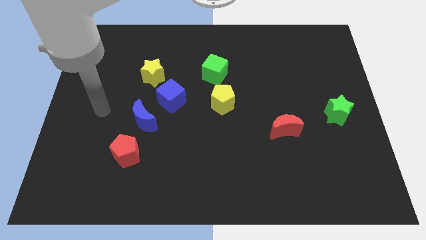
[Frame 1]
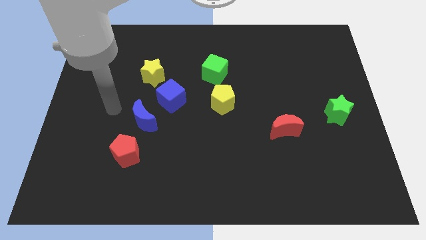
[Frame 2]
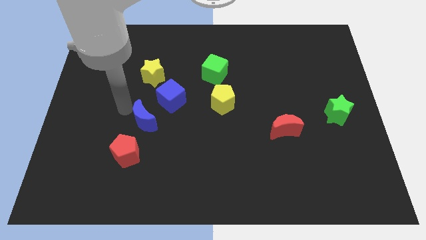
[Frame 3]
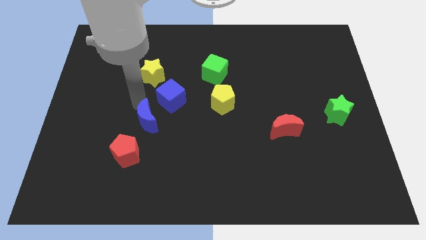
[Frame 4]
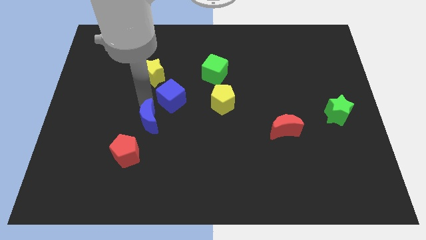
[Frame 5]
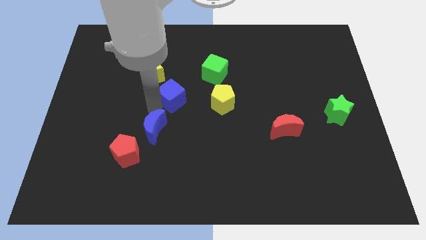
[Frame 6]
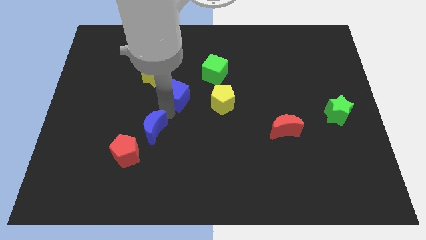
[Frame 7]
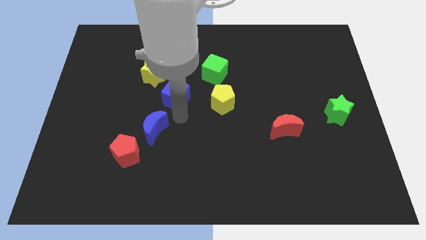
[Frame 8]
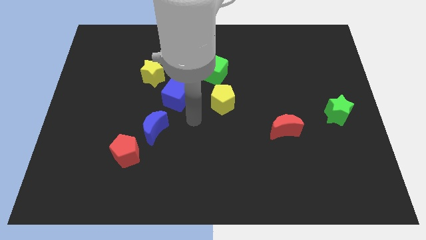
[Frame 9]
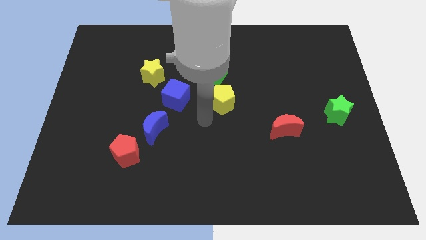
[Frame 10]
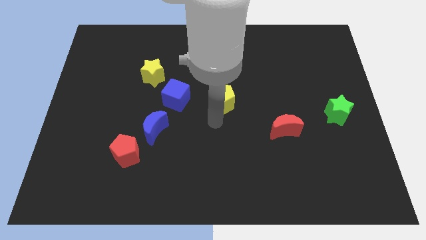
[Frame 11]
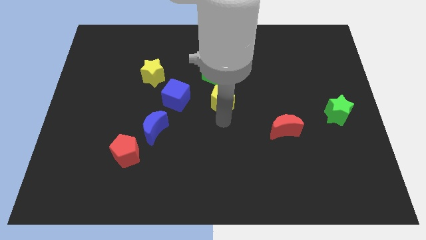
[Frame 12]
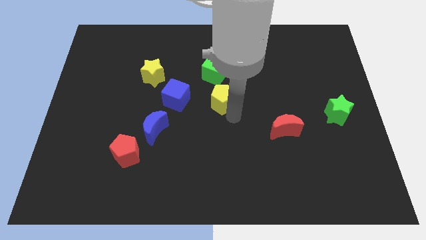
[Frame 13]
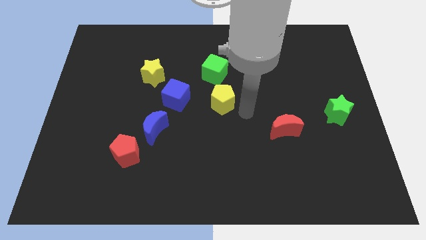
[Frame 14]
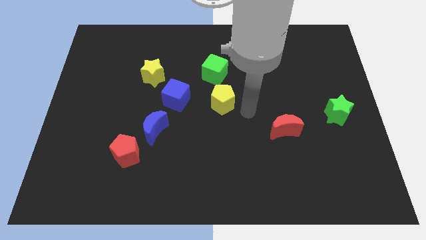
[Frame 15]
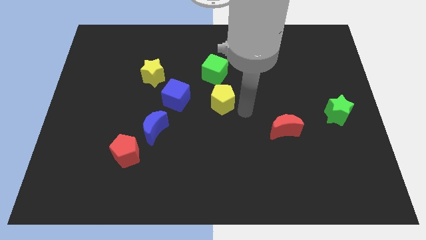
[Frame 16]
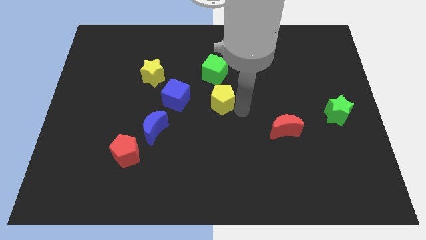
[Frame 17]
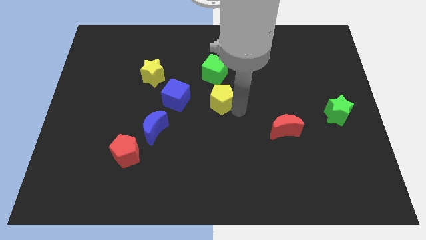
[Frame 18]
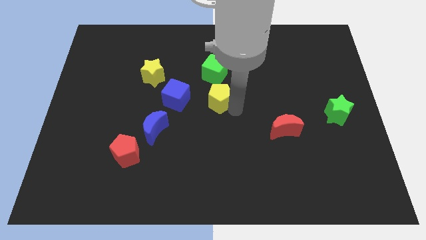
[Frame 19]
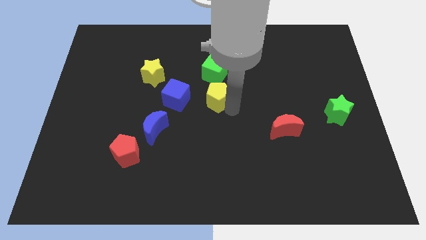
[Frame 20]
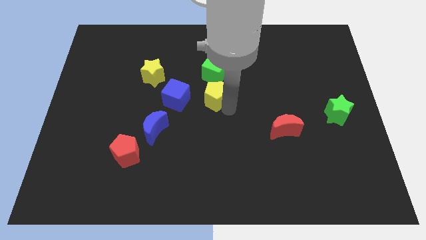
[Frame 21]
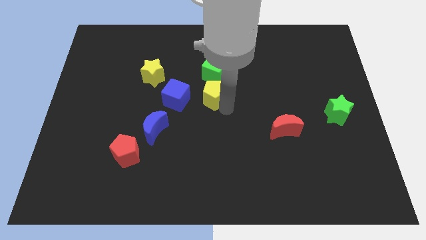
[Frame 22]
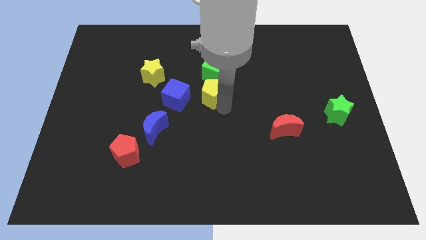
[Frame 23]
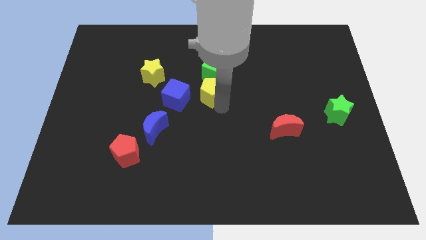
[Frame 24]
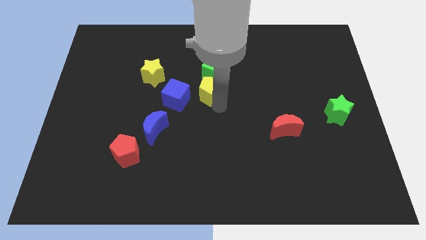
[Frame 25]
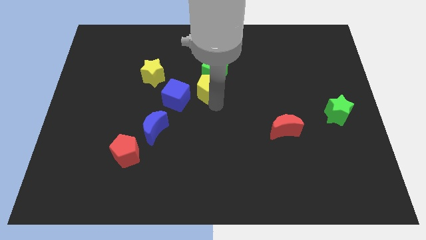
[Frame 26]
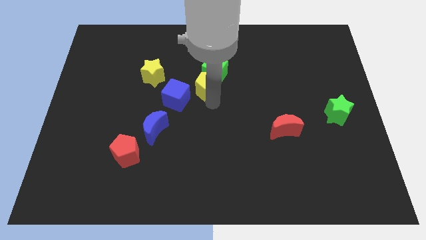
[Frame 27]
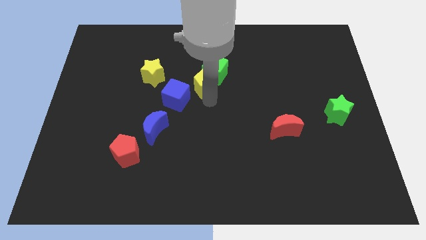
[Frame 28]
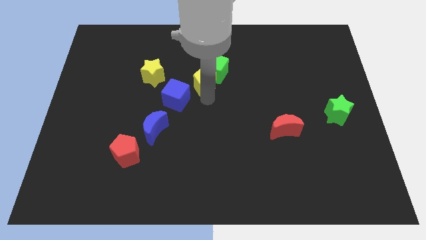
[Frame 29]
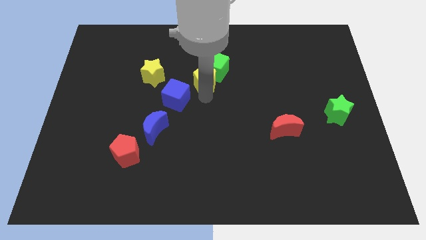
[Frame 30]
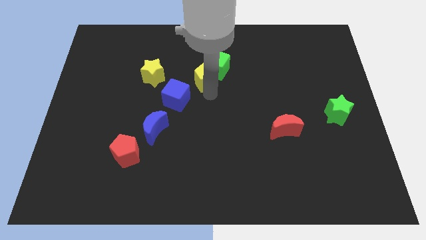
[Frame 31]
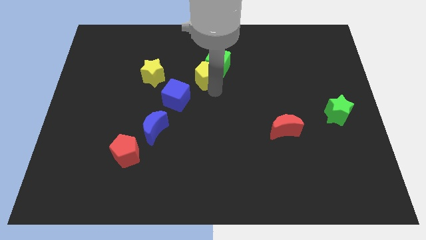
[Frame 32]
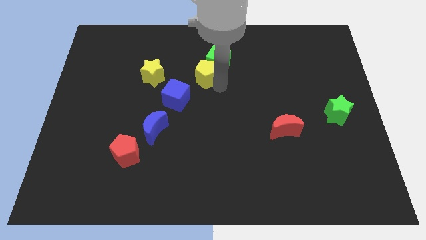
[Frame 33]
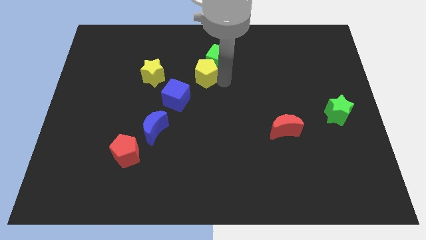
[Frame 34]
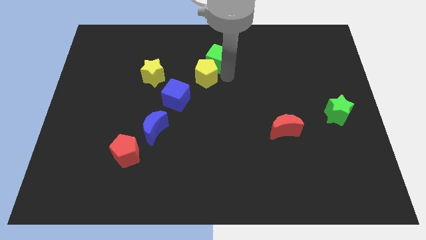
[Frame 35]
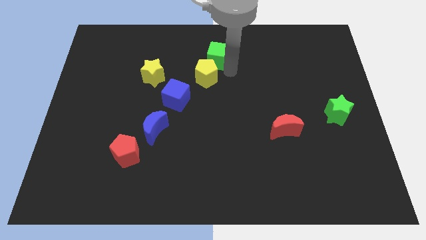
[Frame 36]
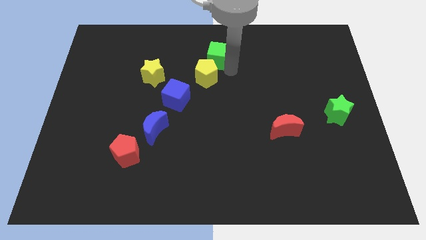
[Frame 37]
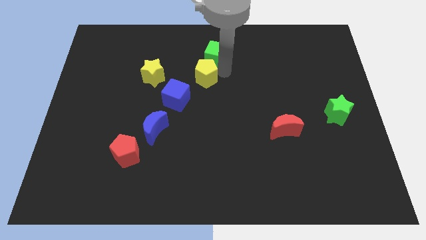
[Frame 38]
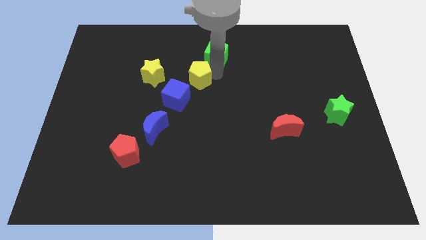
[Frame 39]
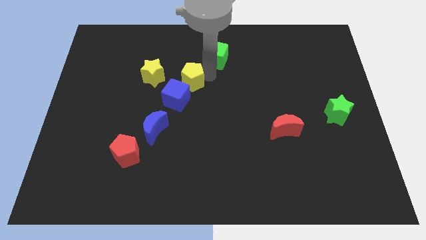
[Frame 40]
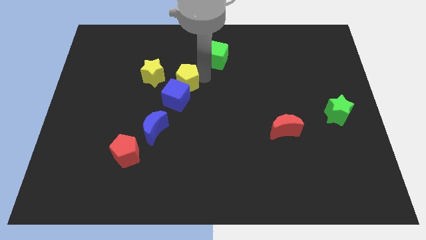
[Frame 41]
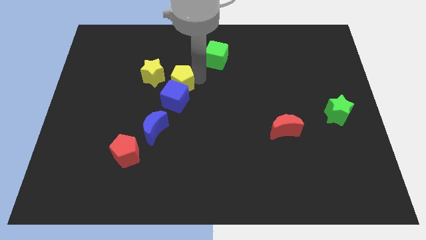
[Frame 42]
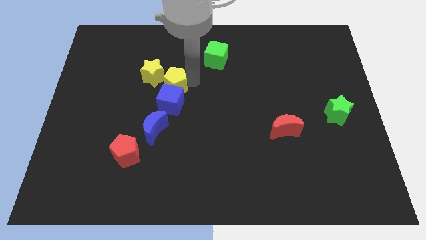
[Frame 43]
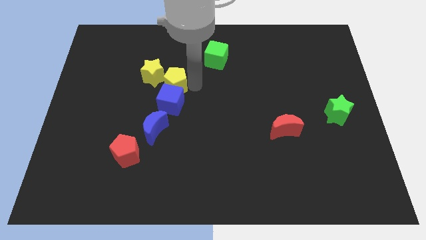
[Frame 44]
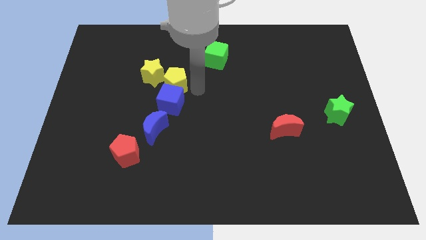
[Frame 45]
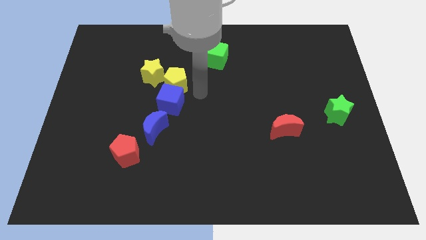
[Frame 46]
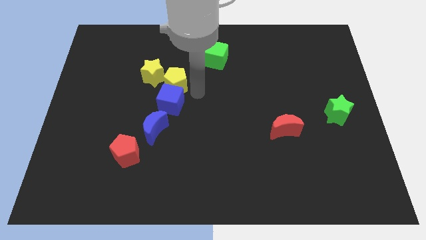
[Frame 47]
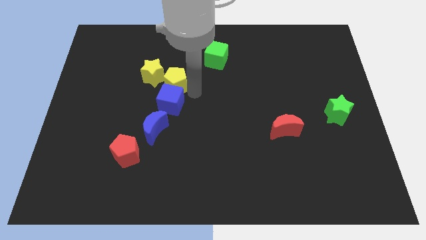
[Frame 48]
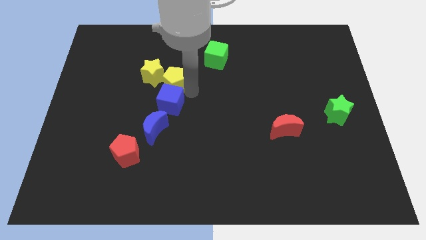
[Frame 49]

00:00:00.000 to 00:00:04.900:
push the yellow pentagon towards the yellow star

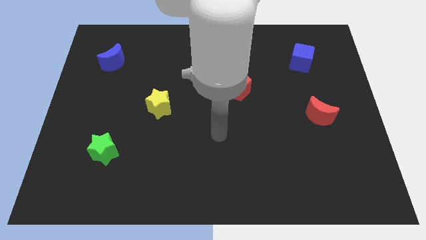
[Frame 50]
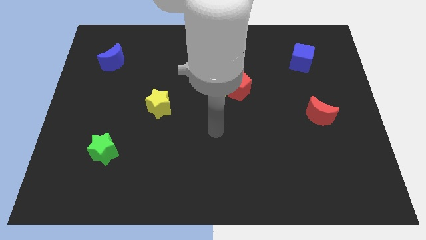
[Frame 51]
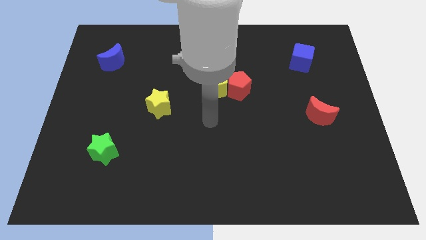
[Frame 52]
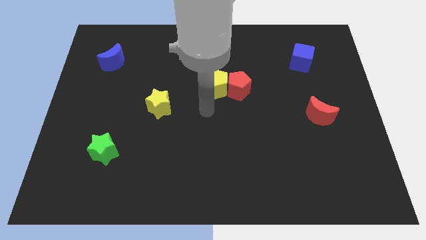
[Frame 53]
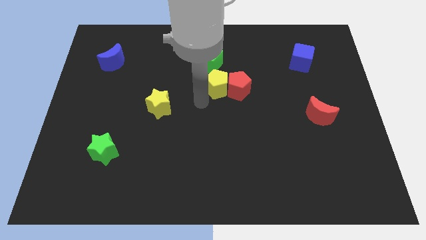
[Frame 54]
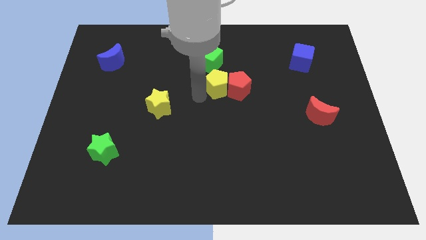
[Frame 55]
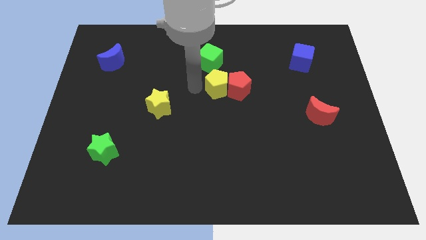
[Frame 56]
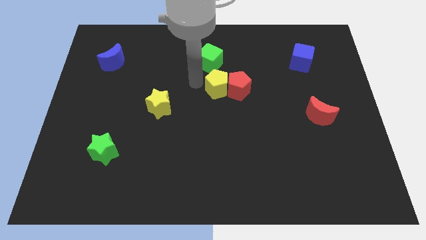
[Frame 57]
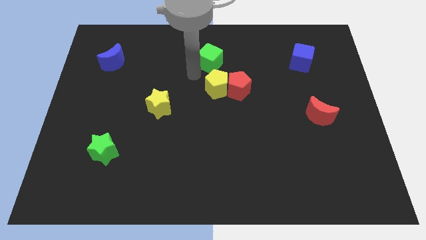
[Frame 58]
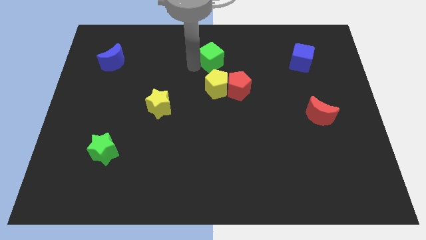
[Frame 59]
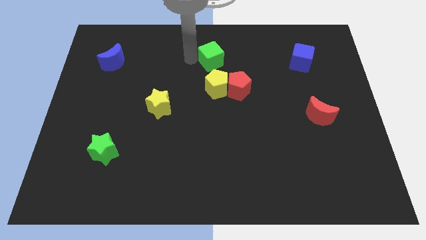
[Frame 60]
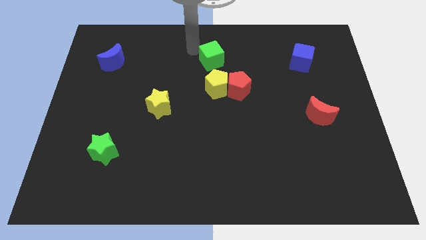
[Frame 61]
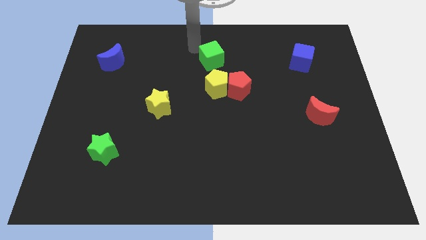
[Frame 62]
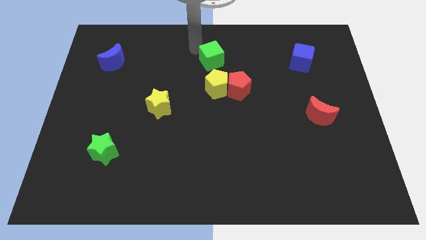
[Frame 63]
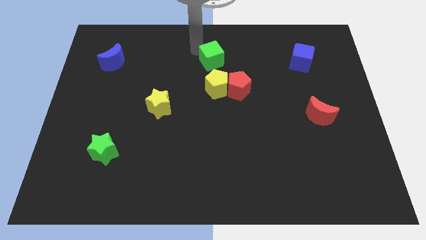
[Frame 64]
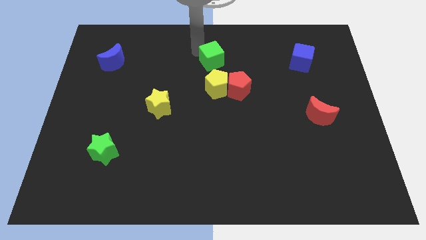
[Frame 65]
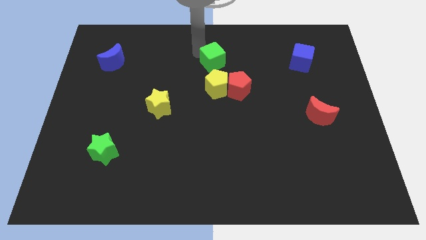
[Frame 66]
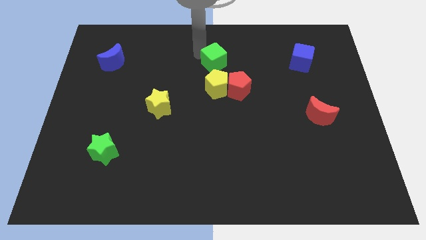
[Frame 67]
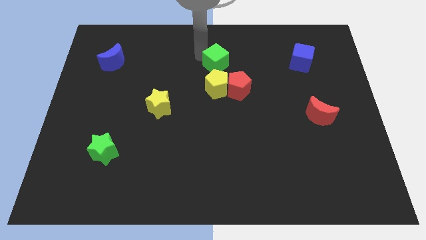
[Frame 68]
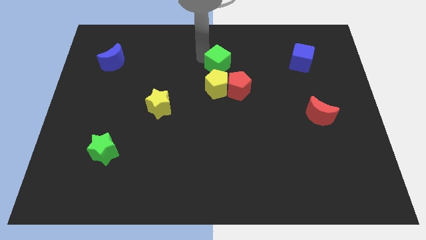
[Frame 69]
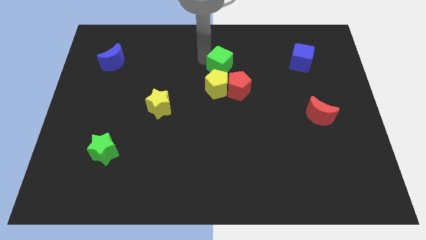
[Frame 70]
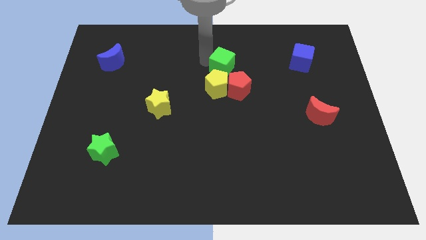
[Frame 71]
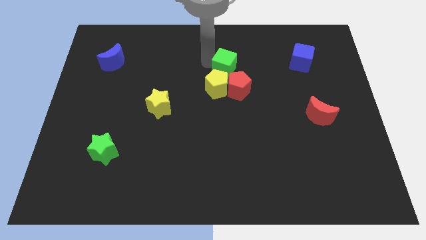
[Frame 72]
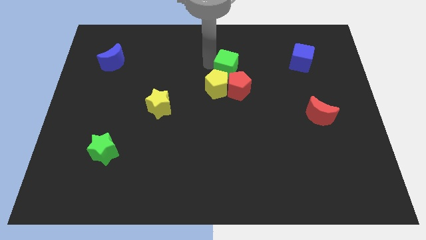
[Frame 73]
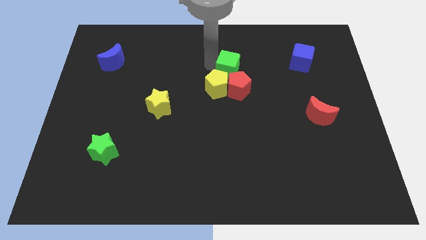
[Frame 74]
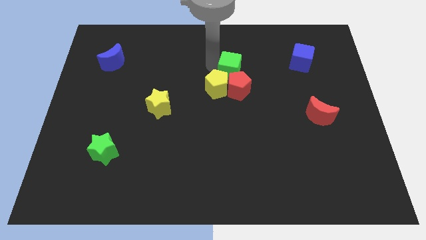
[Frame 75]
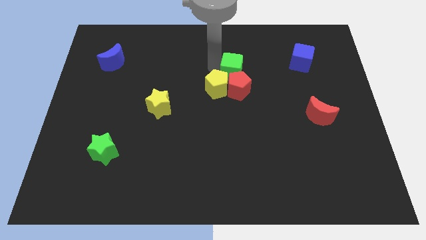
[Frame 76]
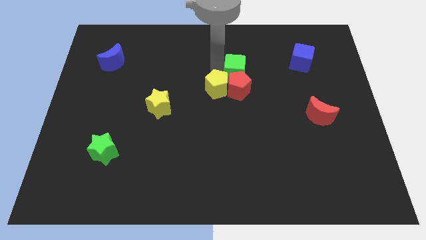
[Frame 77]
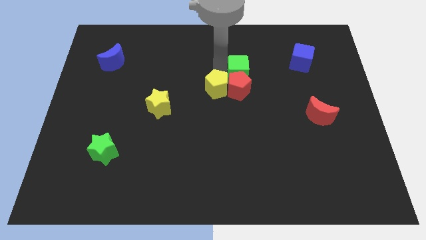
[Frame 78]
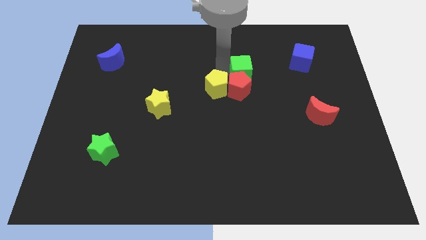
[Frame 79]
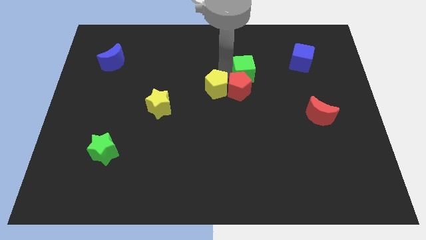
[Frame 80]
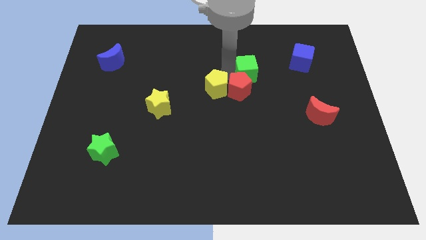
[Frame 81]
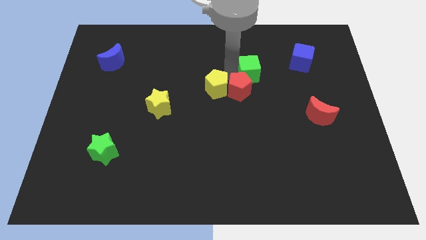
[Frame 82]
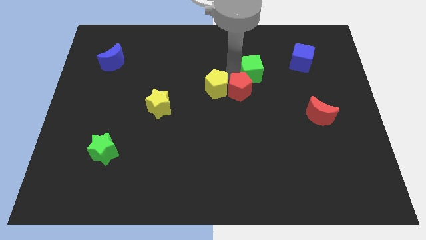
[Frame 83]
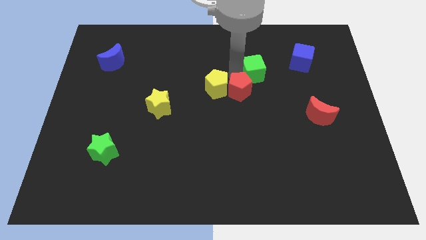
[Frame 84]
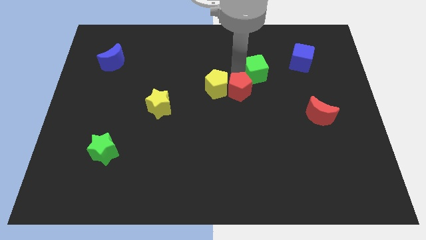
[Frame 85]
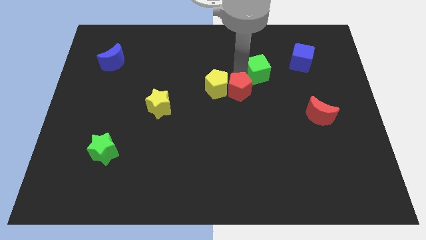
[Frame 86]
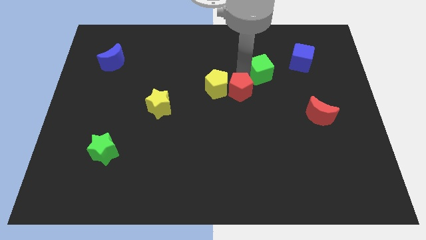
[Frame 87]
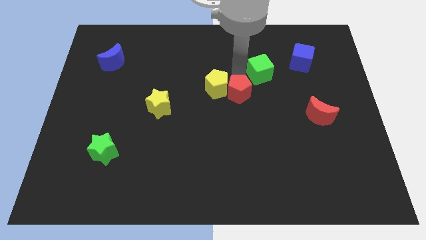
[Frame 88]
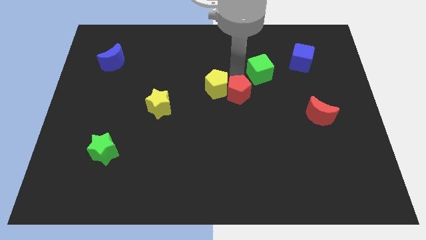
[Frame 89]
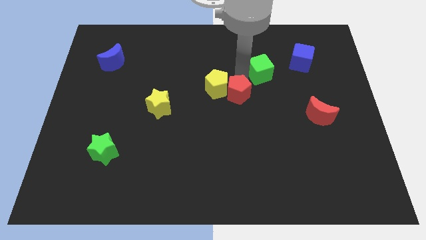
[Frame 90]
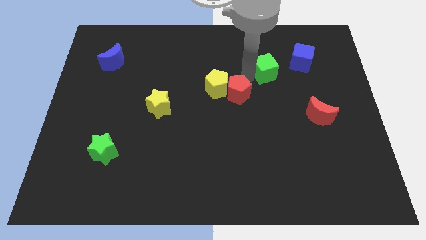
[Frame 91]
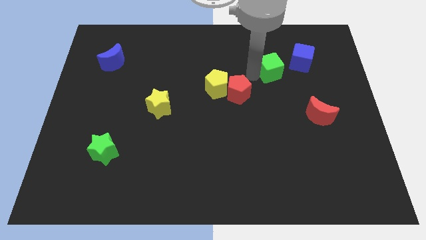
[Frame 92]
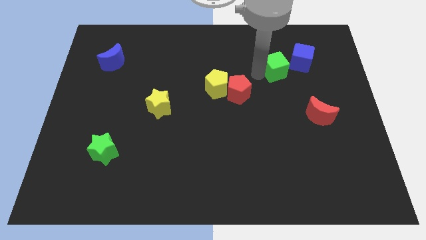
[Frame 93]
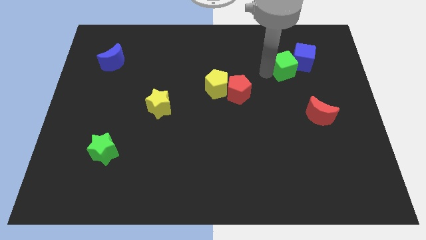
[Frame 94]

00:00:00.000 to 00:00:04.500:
push the green cube close to the blue cube
